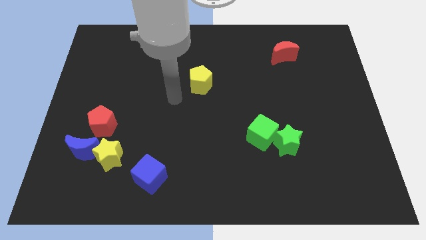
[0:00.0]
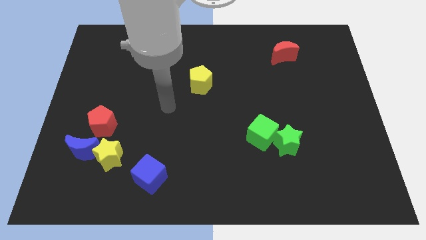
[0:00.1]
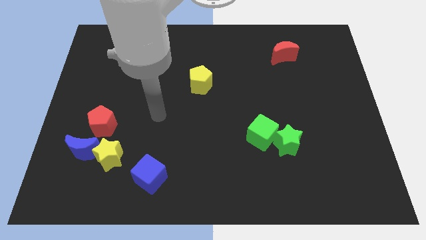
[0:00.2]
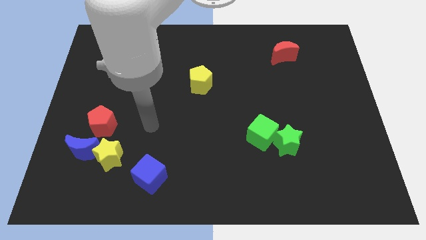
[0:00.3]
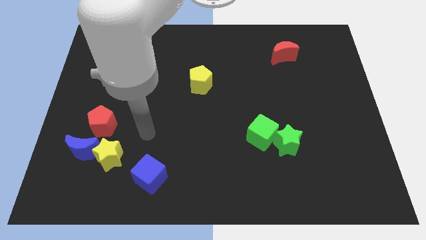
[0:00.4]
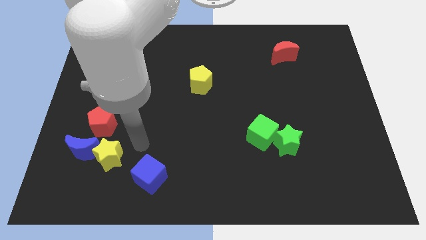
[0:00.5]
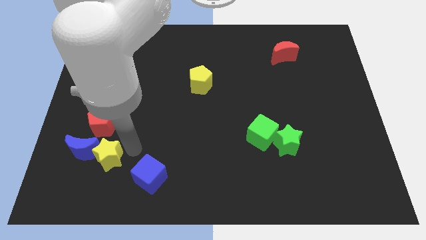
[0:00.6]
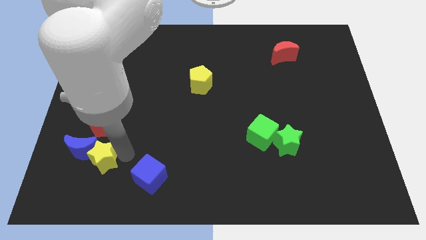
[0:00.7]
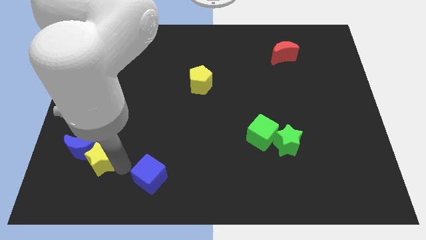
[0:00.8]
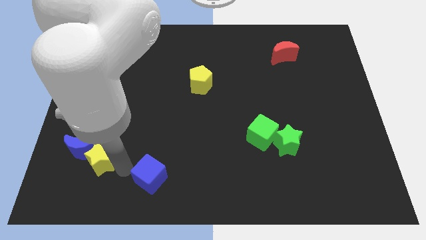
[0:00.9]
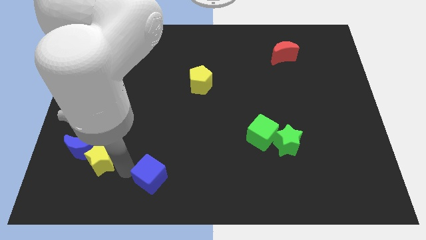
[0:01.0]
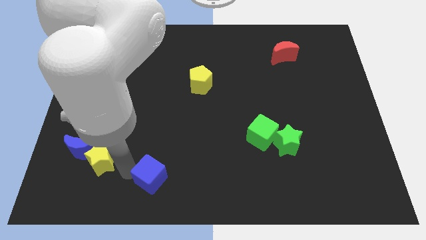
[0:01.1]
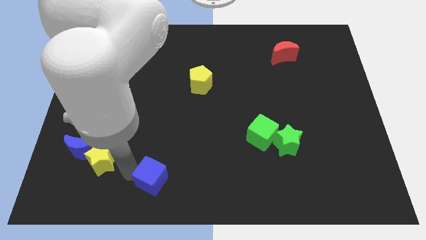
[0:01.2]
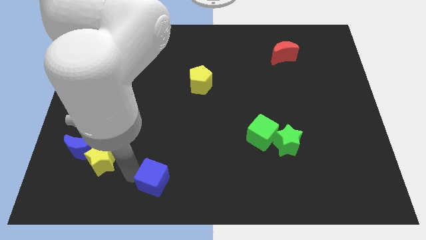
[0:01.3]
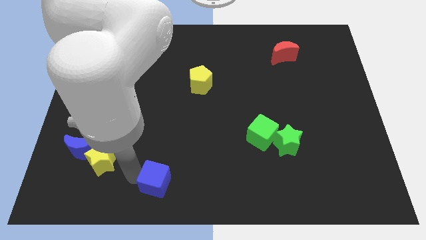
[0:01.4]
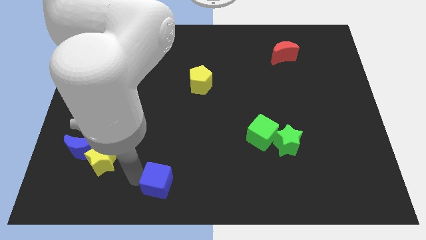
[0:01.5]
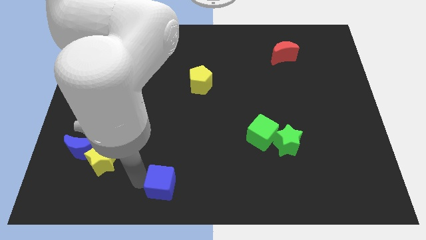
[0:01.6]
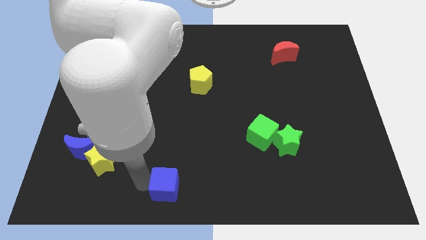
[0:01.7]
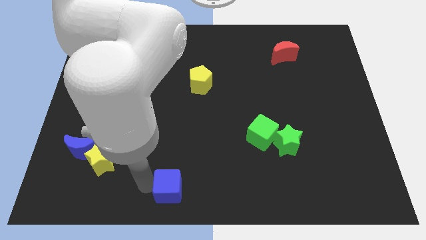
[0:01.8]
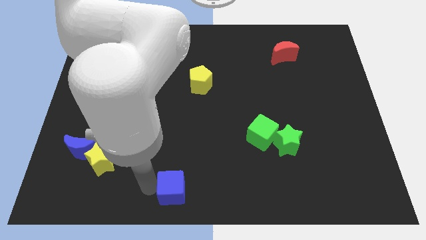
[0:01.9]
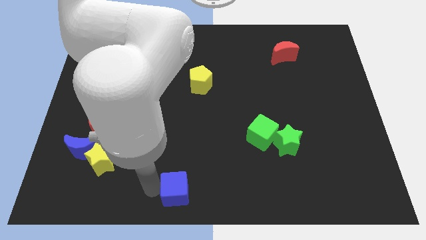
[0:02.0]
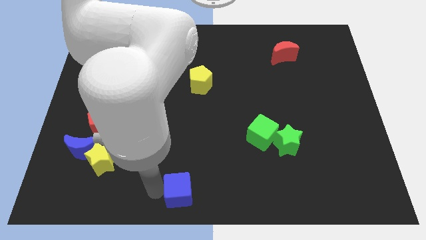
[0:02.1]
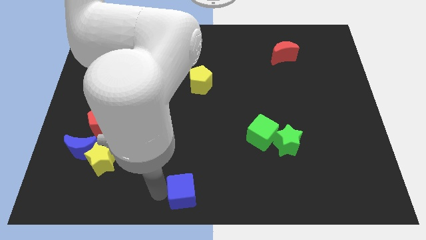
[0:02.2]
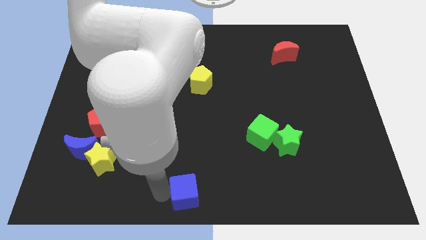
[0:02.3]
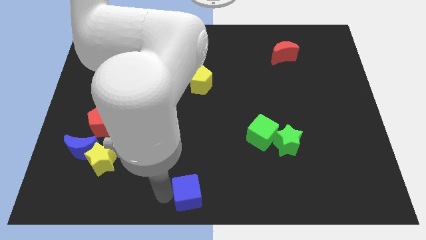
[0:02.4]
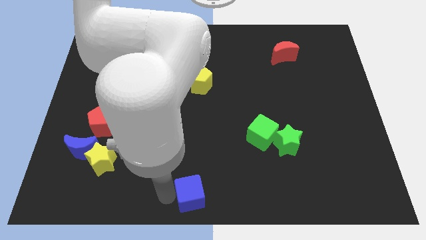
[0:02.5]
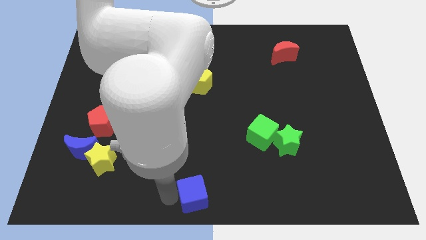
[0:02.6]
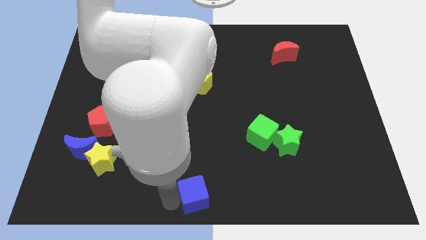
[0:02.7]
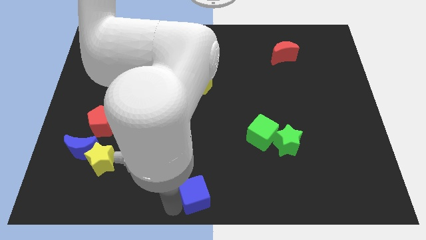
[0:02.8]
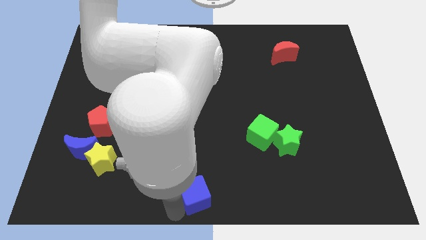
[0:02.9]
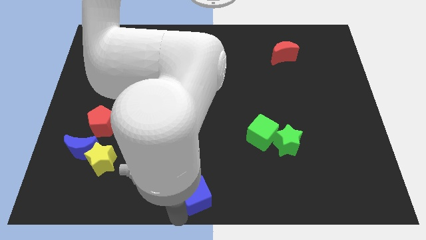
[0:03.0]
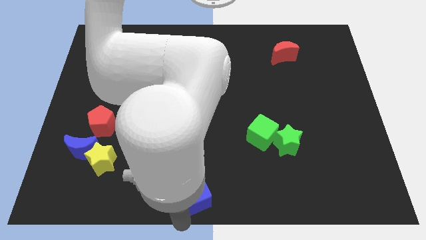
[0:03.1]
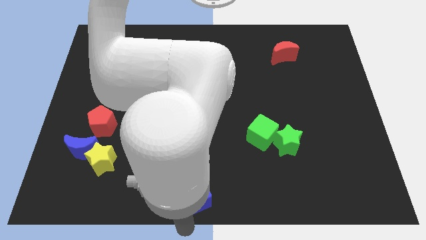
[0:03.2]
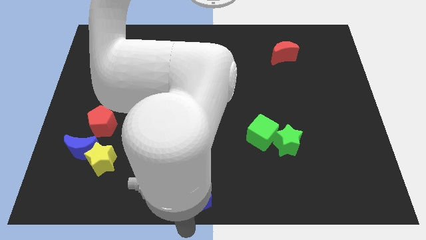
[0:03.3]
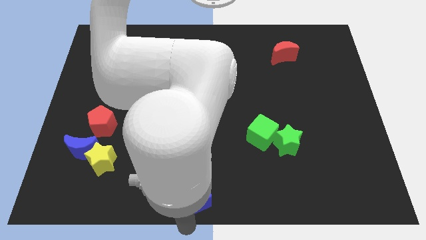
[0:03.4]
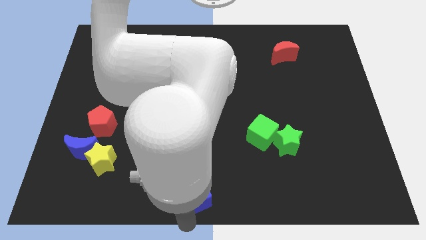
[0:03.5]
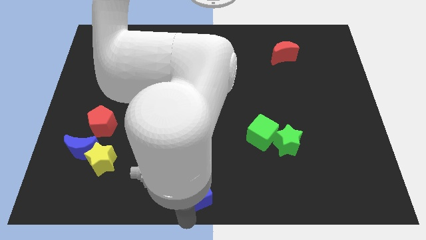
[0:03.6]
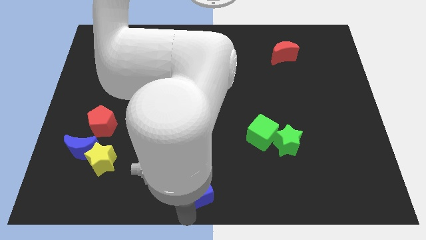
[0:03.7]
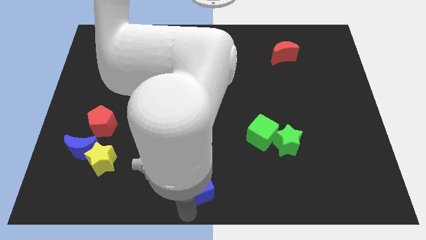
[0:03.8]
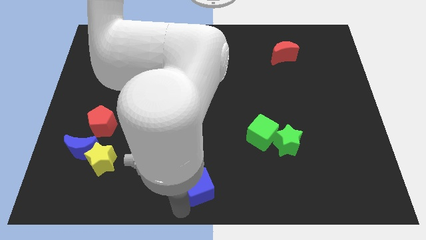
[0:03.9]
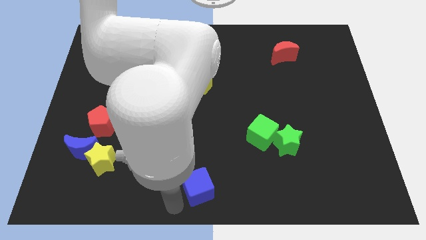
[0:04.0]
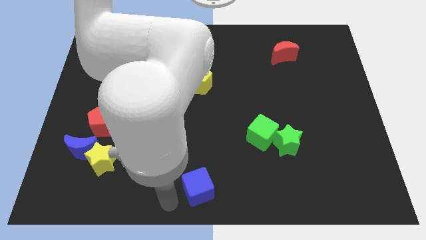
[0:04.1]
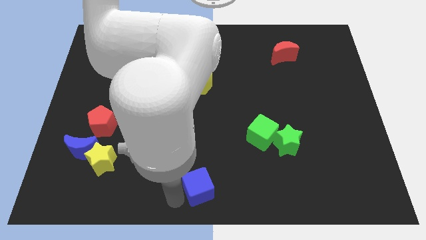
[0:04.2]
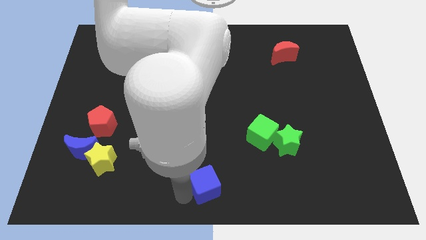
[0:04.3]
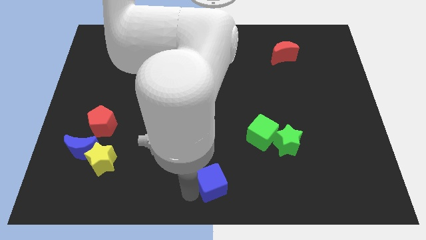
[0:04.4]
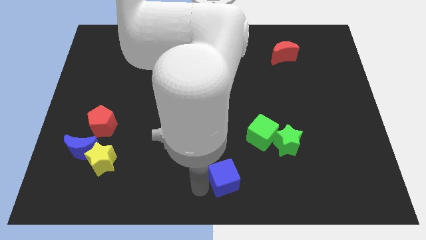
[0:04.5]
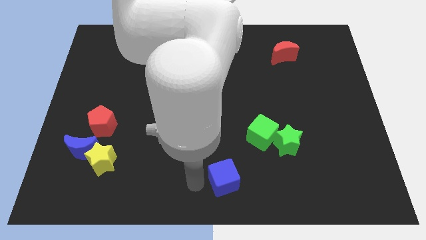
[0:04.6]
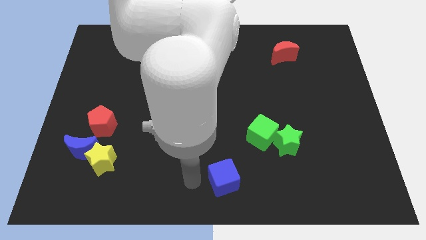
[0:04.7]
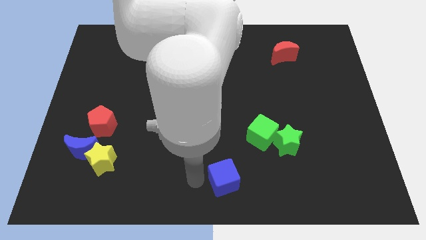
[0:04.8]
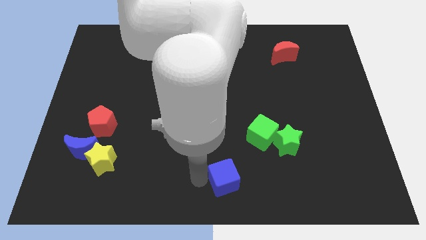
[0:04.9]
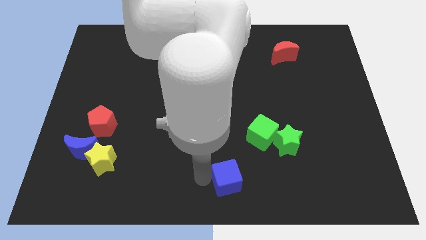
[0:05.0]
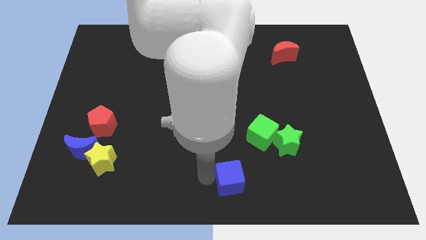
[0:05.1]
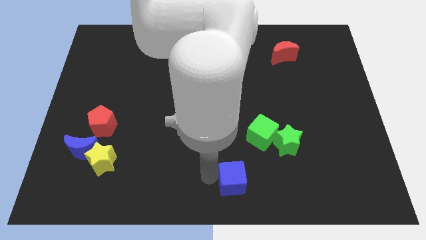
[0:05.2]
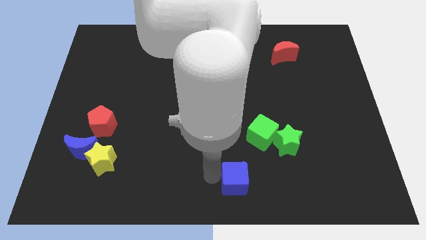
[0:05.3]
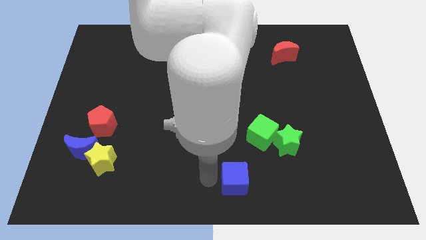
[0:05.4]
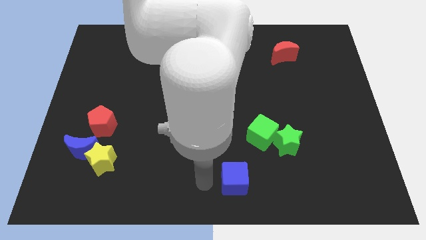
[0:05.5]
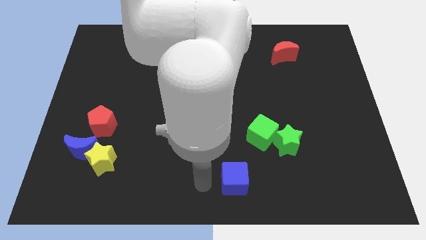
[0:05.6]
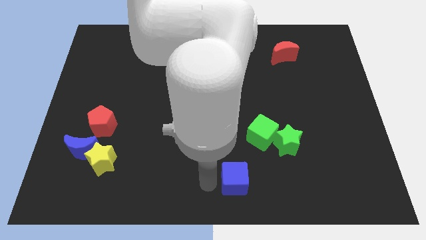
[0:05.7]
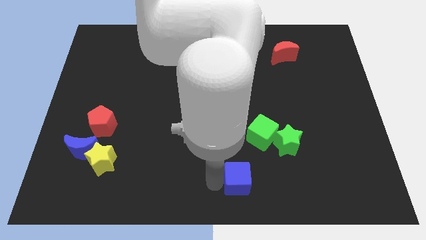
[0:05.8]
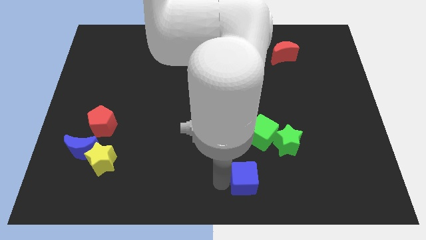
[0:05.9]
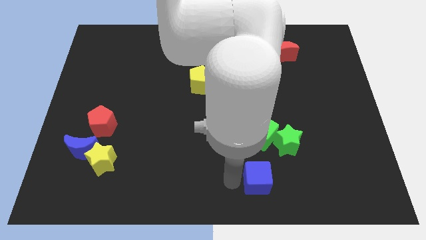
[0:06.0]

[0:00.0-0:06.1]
slide the blue cube right

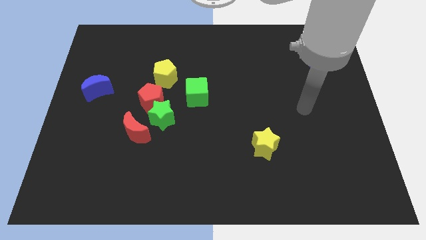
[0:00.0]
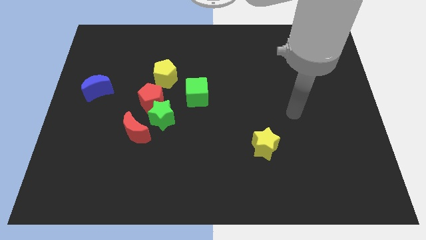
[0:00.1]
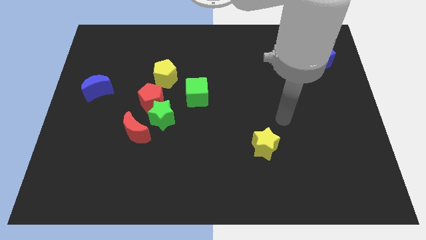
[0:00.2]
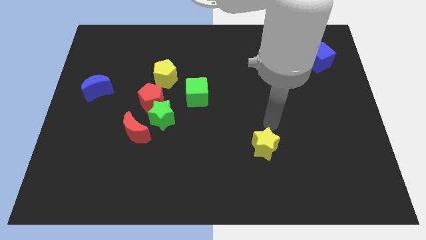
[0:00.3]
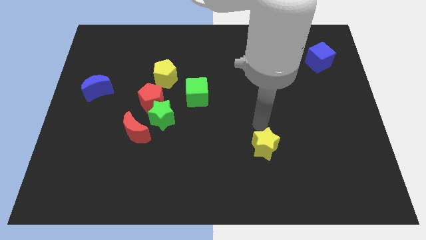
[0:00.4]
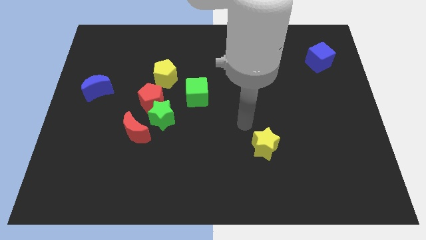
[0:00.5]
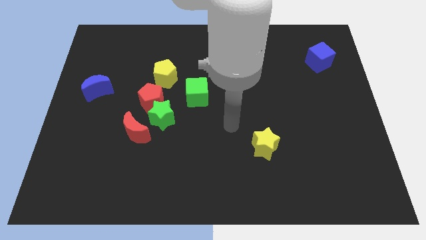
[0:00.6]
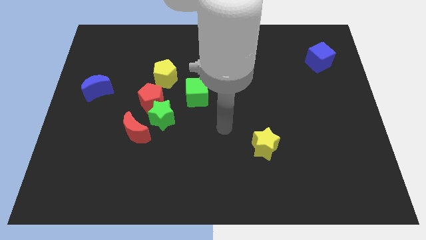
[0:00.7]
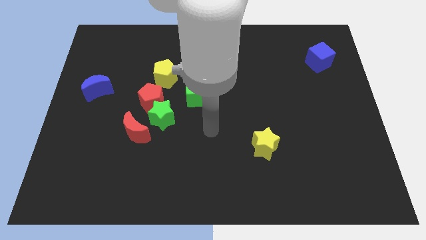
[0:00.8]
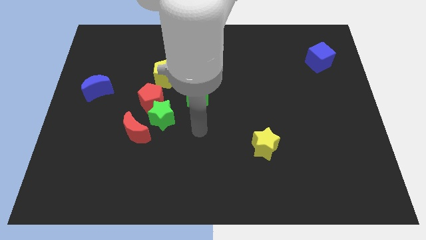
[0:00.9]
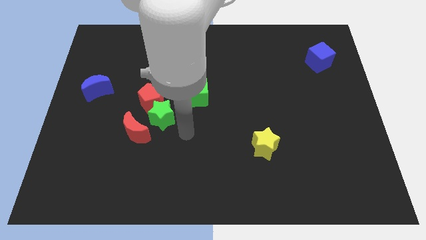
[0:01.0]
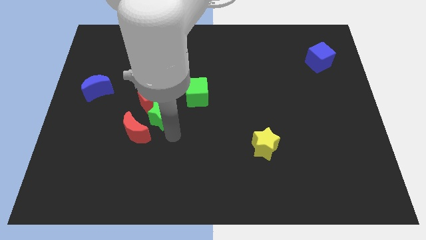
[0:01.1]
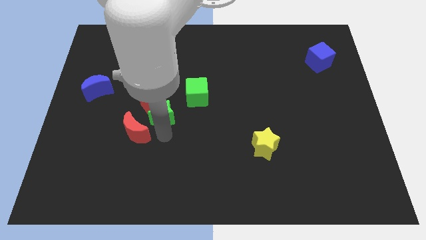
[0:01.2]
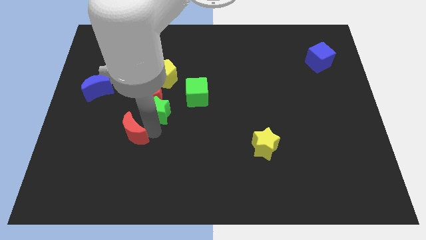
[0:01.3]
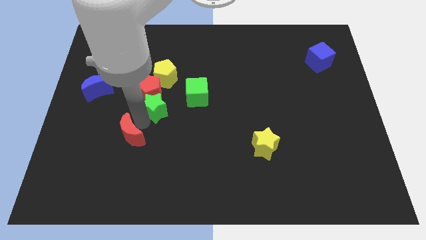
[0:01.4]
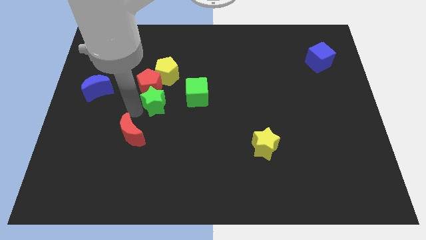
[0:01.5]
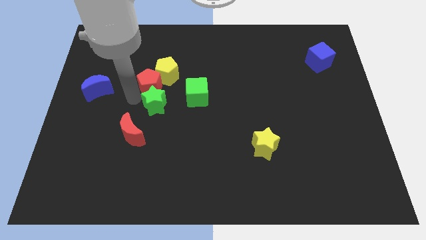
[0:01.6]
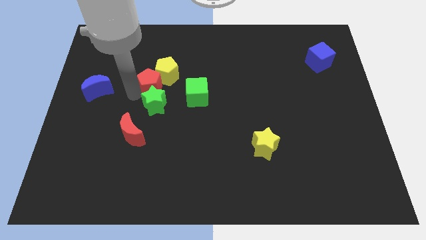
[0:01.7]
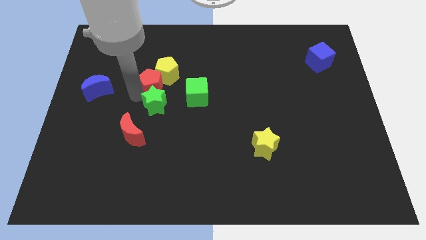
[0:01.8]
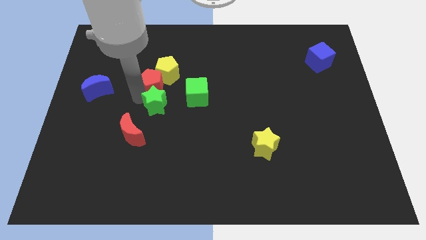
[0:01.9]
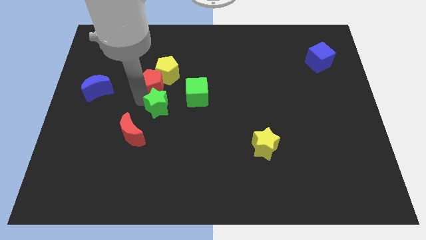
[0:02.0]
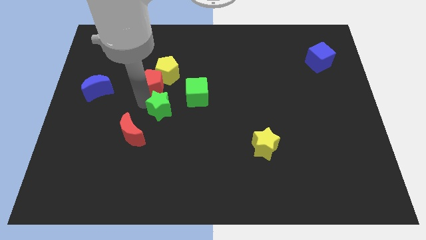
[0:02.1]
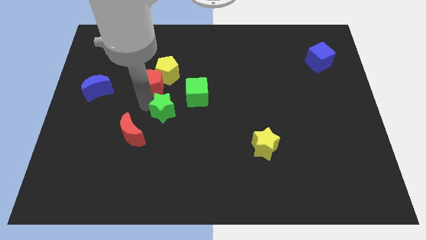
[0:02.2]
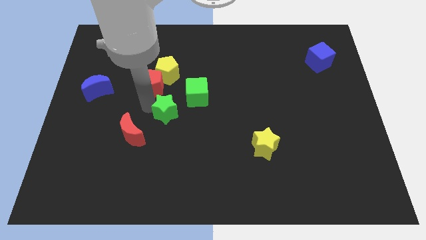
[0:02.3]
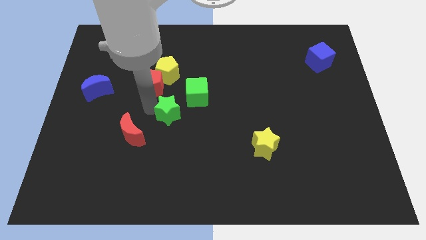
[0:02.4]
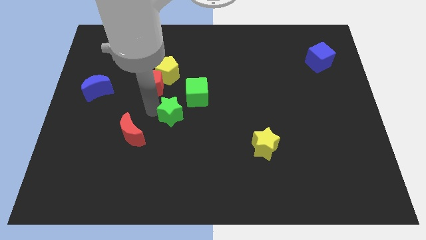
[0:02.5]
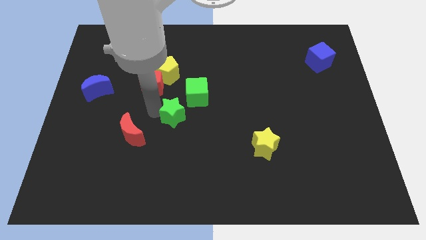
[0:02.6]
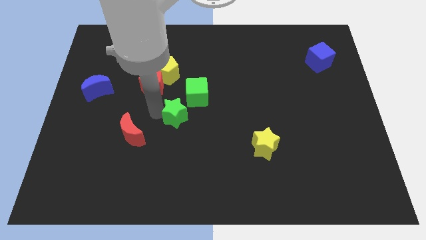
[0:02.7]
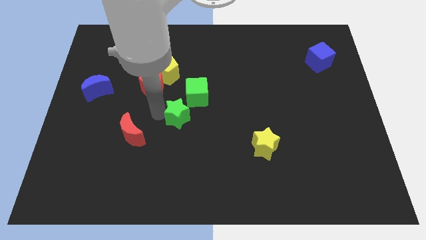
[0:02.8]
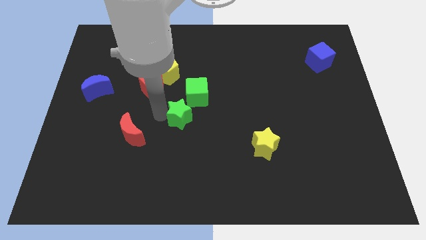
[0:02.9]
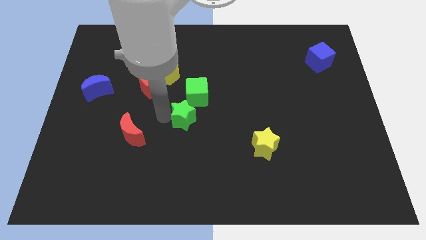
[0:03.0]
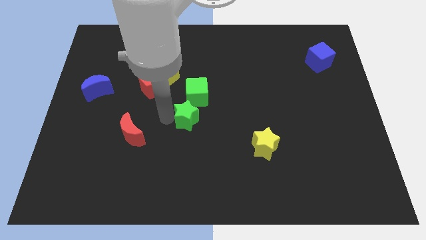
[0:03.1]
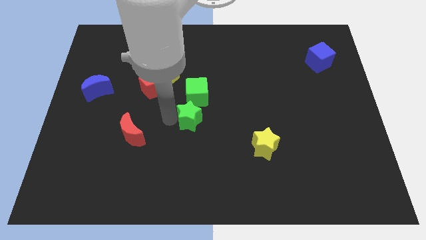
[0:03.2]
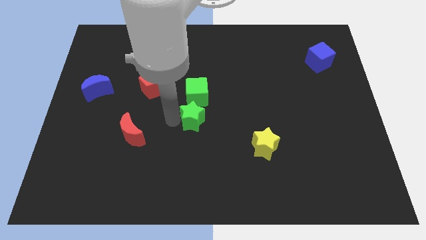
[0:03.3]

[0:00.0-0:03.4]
move the green star somewhat right
